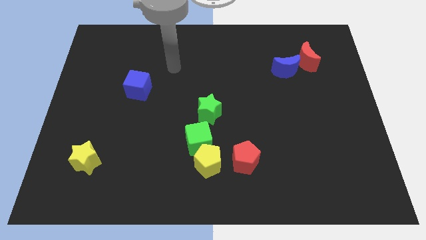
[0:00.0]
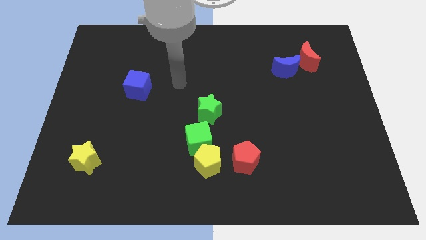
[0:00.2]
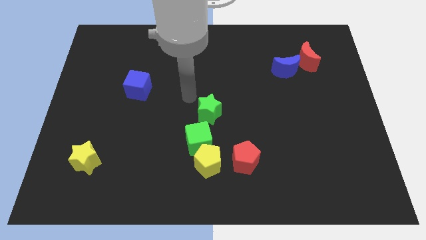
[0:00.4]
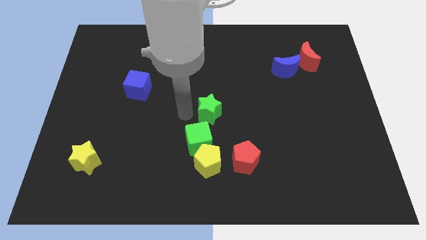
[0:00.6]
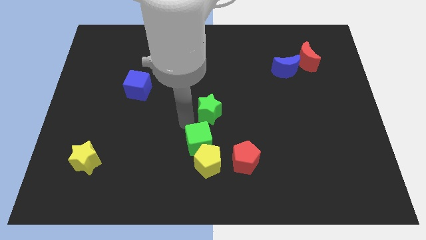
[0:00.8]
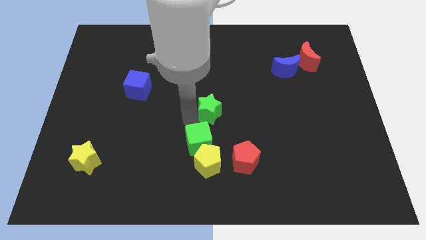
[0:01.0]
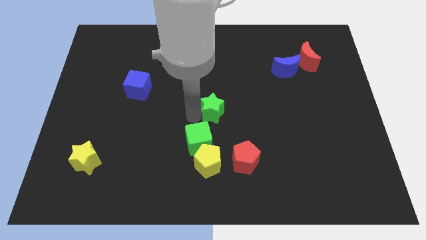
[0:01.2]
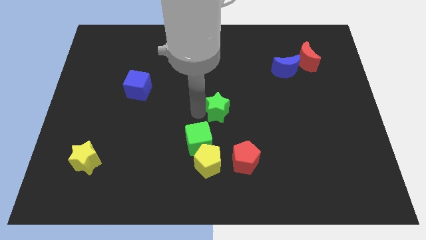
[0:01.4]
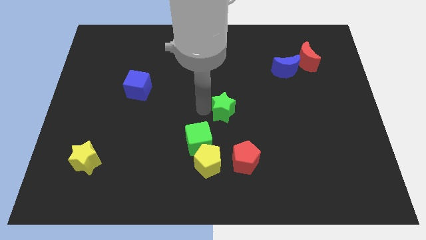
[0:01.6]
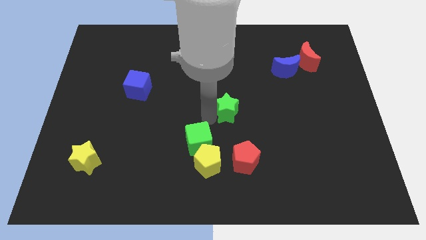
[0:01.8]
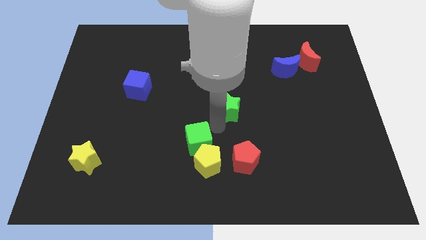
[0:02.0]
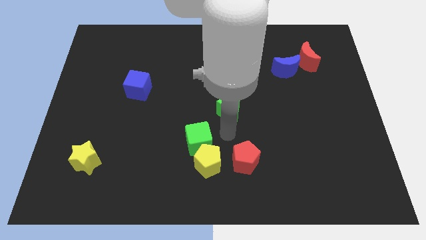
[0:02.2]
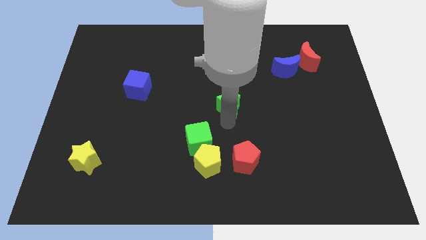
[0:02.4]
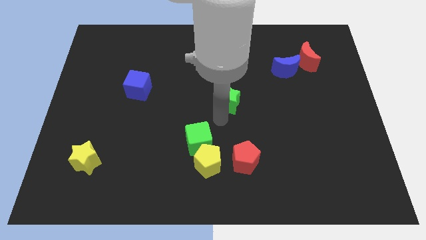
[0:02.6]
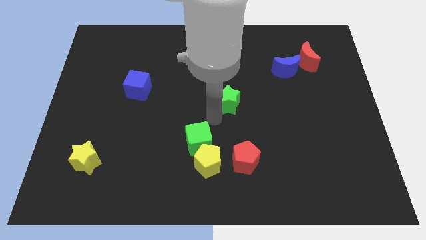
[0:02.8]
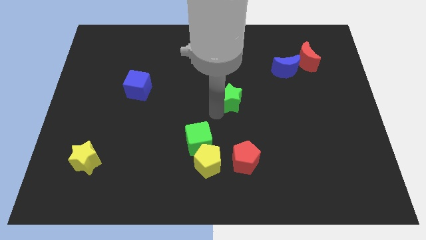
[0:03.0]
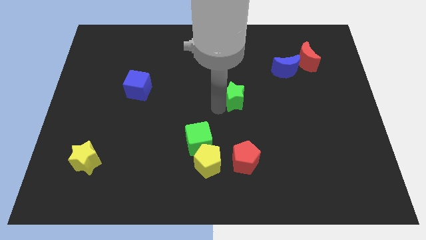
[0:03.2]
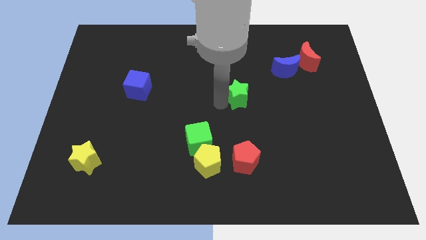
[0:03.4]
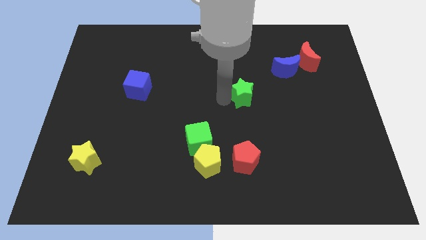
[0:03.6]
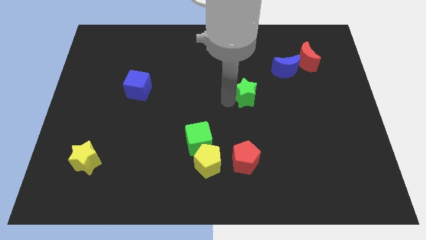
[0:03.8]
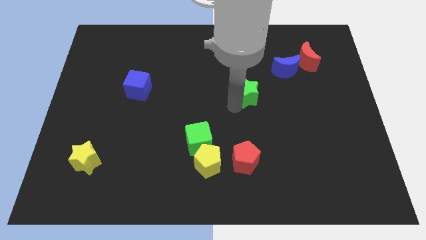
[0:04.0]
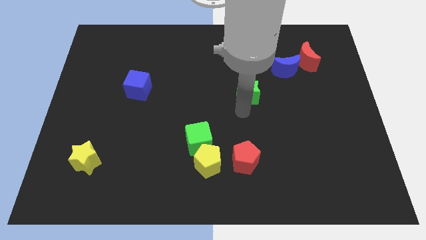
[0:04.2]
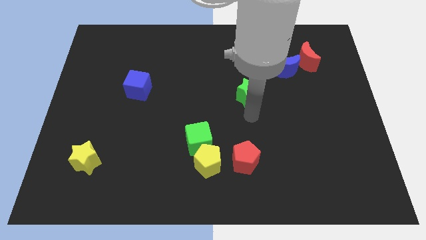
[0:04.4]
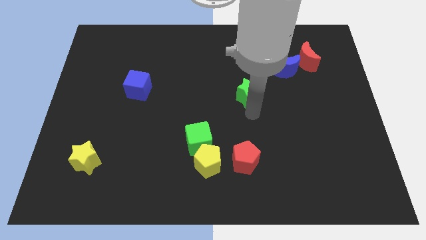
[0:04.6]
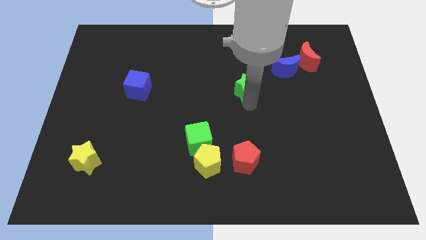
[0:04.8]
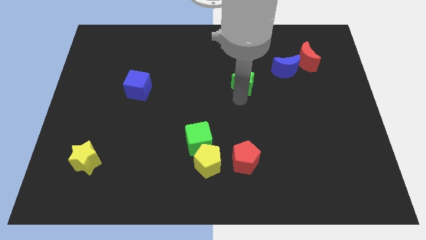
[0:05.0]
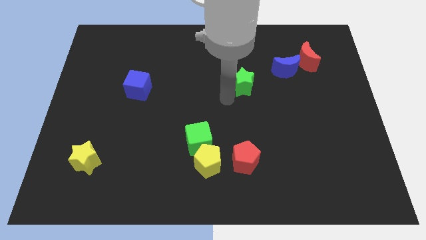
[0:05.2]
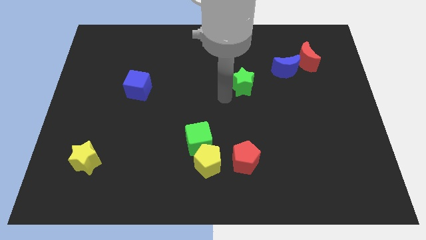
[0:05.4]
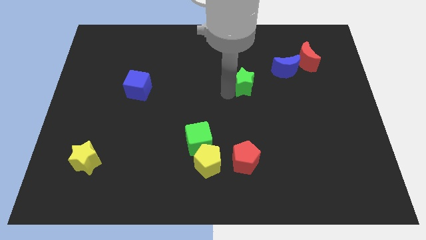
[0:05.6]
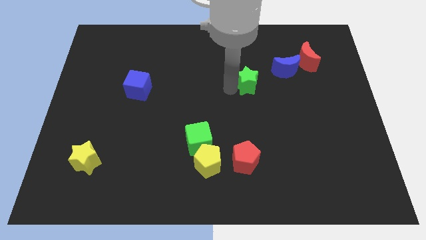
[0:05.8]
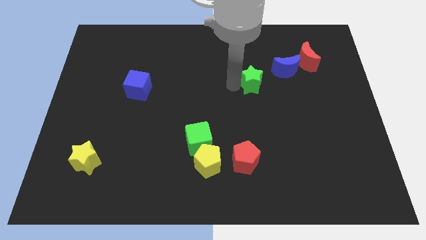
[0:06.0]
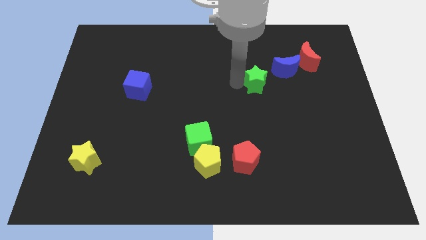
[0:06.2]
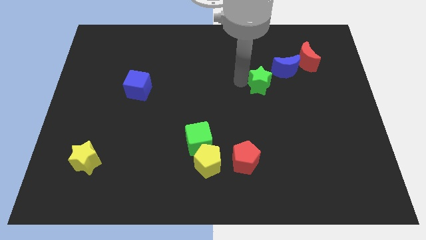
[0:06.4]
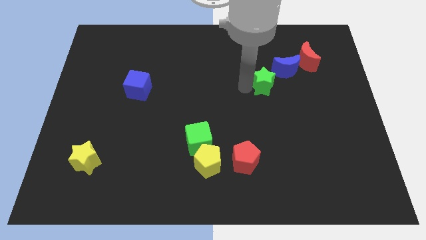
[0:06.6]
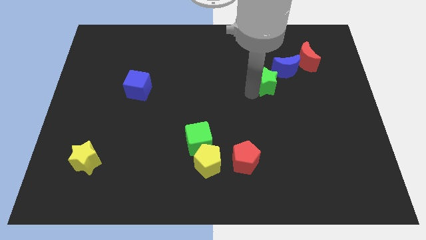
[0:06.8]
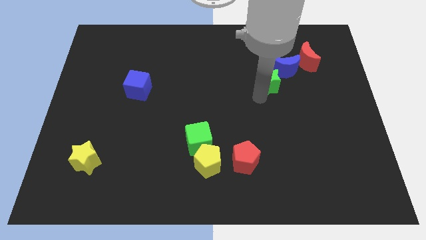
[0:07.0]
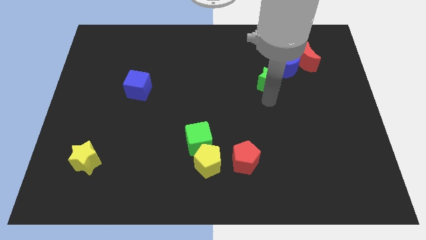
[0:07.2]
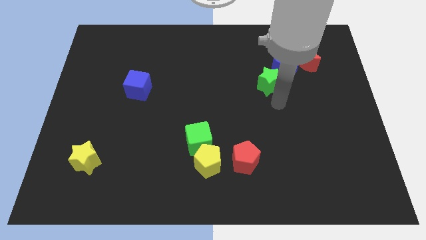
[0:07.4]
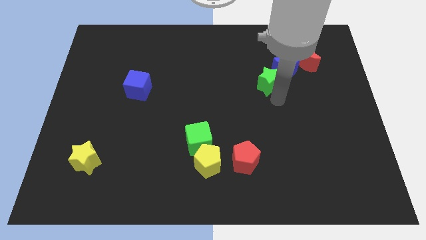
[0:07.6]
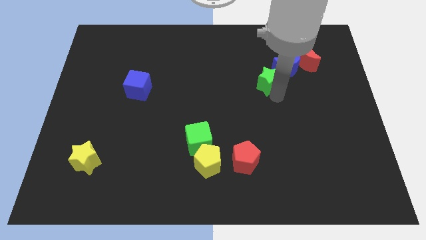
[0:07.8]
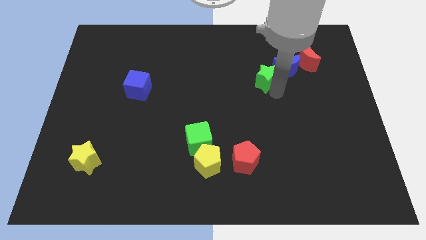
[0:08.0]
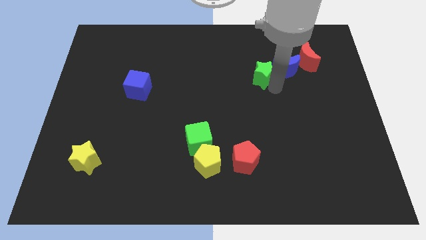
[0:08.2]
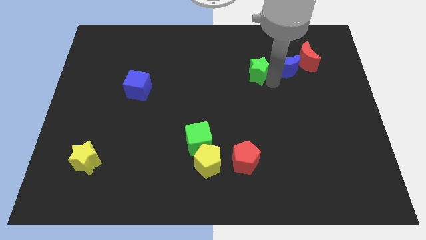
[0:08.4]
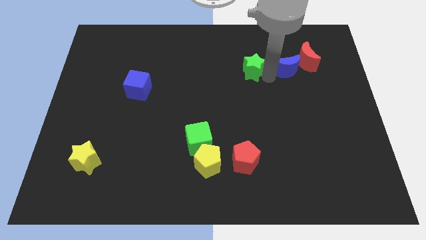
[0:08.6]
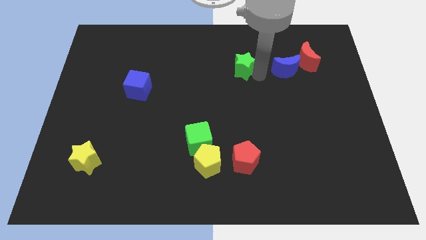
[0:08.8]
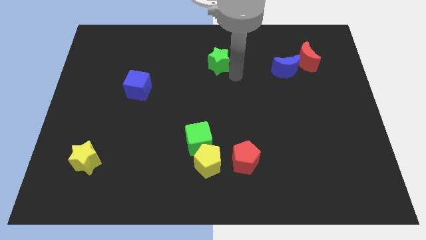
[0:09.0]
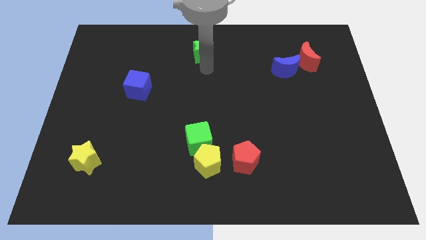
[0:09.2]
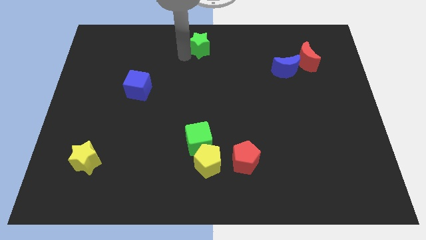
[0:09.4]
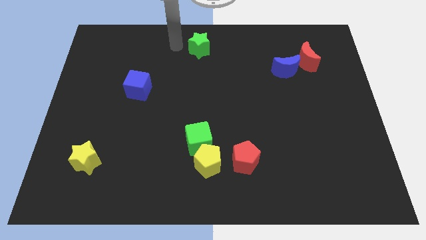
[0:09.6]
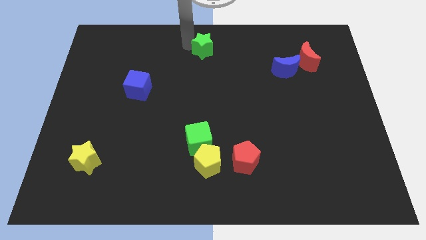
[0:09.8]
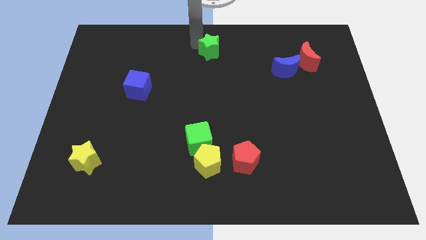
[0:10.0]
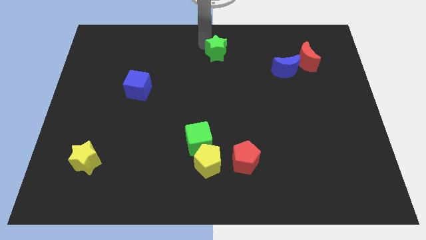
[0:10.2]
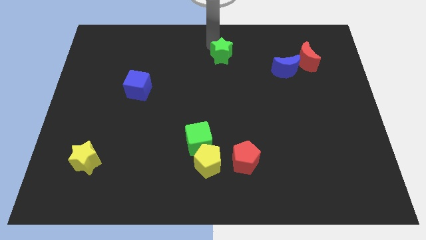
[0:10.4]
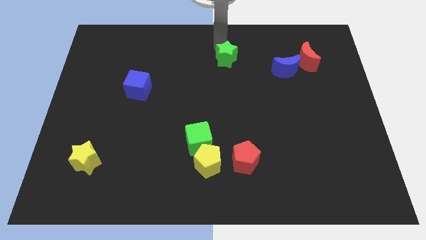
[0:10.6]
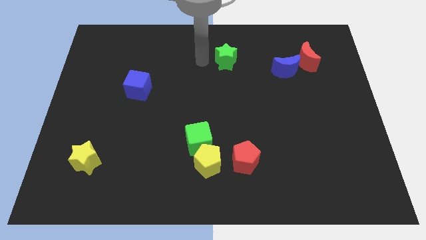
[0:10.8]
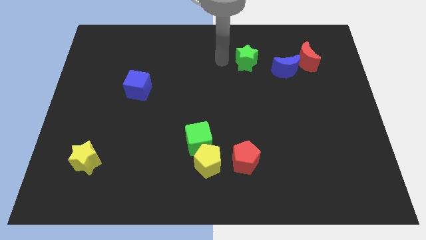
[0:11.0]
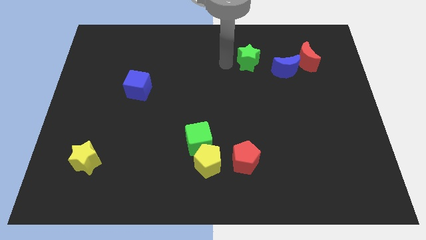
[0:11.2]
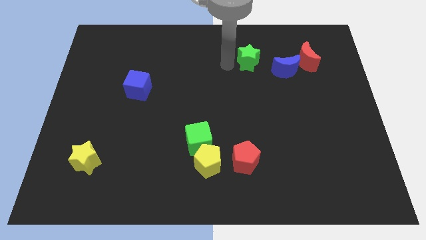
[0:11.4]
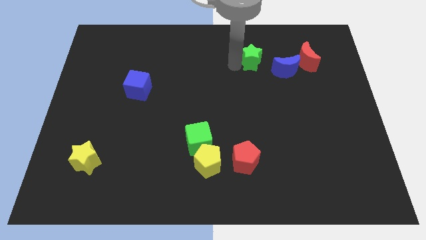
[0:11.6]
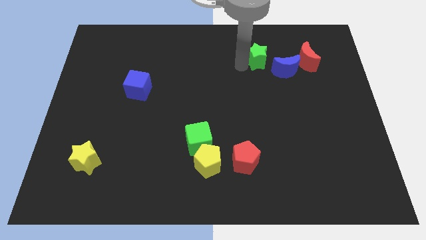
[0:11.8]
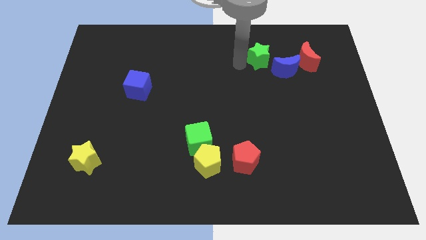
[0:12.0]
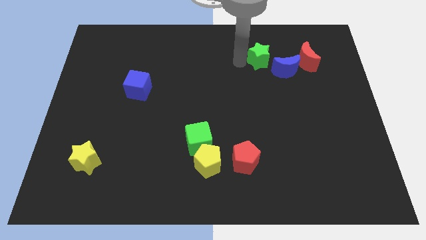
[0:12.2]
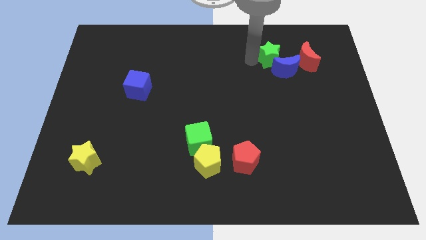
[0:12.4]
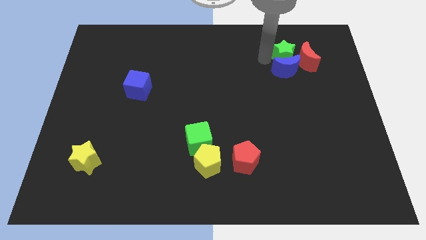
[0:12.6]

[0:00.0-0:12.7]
put the green star to the top right of the blue moon
